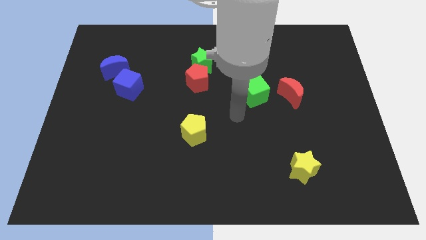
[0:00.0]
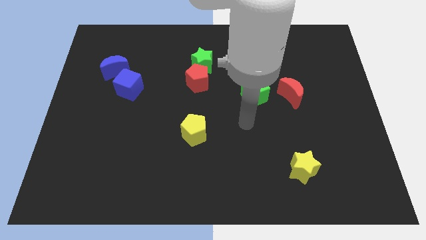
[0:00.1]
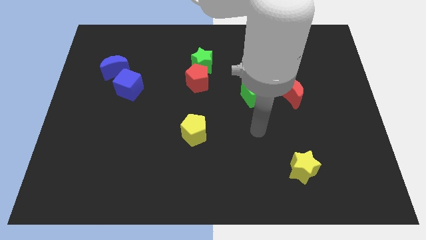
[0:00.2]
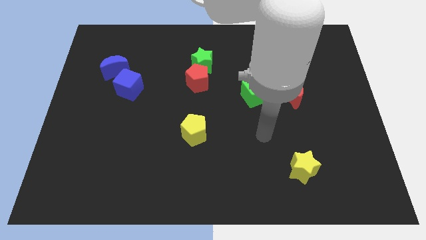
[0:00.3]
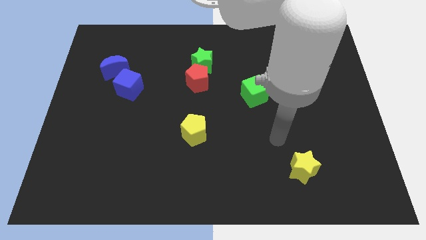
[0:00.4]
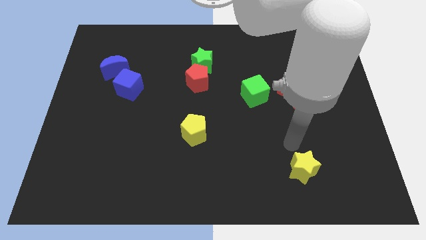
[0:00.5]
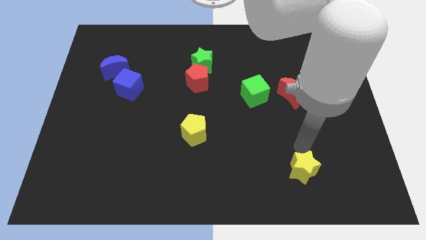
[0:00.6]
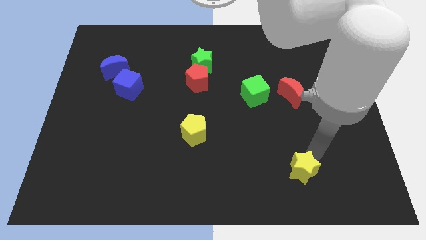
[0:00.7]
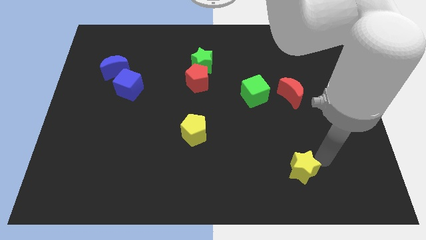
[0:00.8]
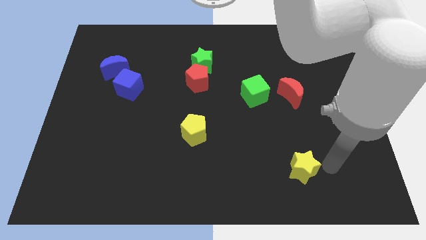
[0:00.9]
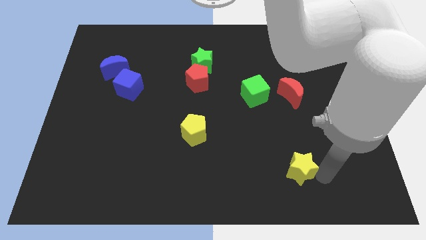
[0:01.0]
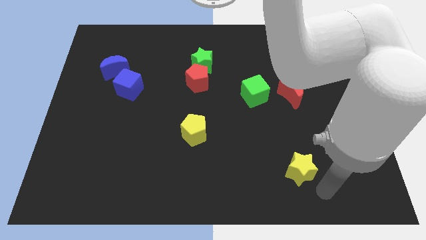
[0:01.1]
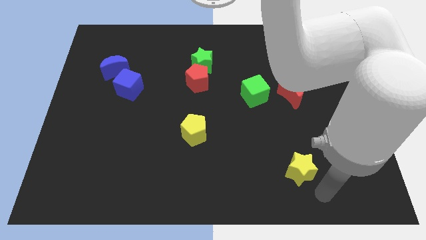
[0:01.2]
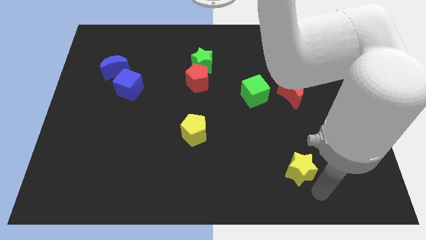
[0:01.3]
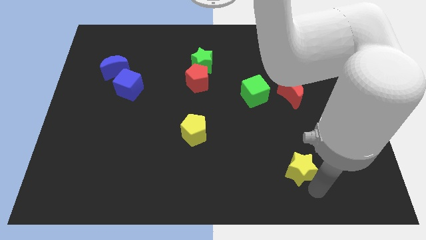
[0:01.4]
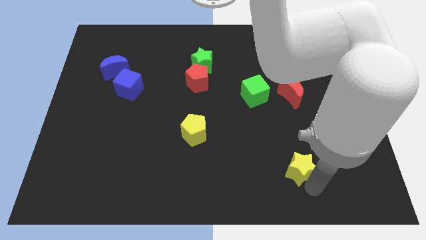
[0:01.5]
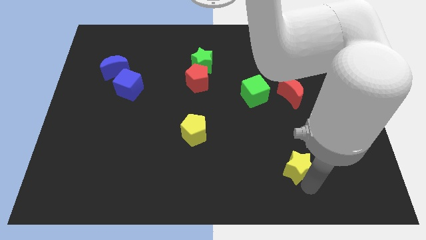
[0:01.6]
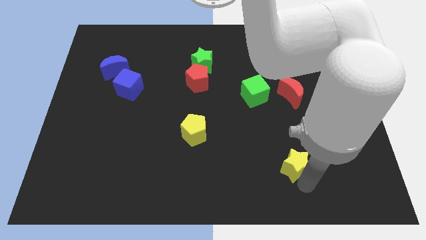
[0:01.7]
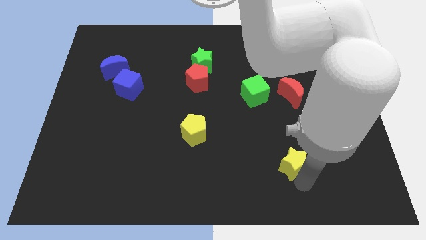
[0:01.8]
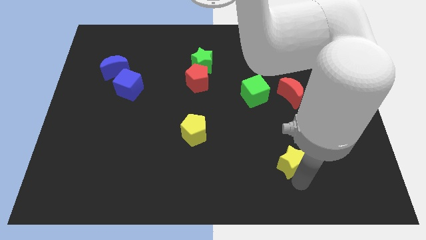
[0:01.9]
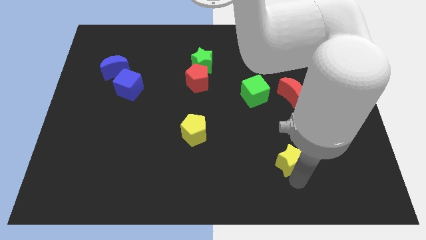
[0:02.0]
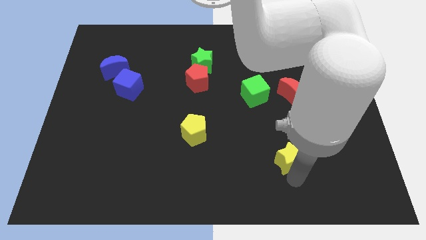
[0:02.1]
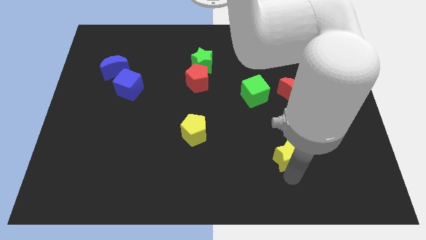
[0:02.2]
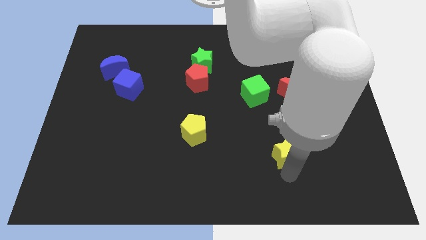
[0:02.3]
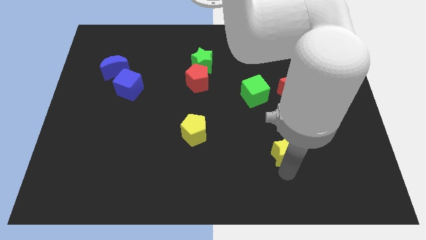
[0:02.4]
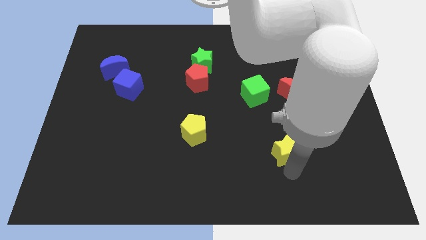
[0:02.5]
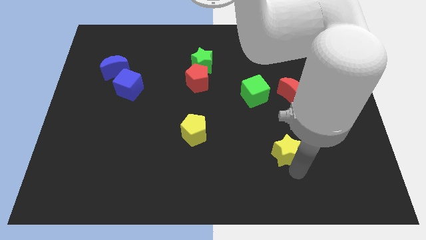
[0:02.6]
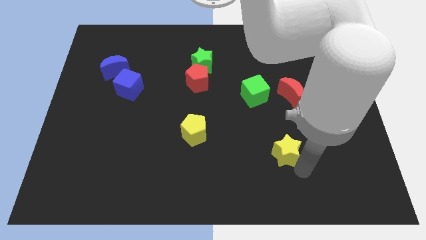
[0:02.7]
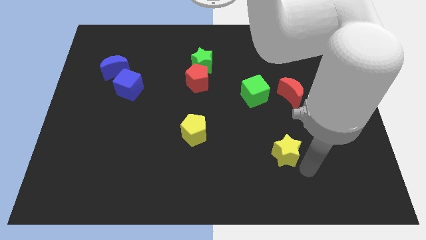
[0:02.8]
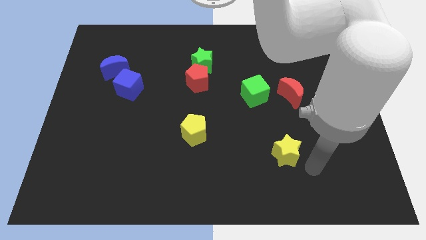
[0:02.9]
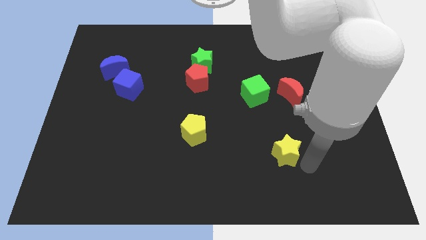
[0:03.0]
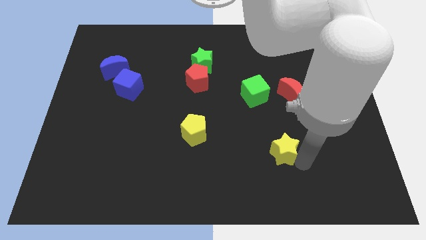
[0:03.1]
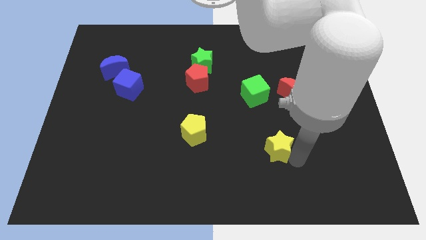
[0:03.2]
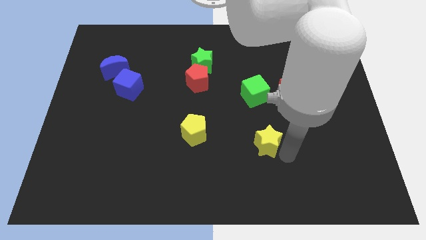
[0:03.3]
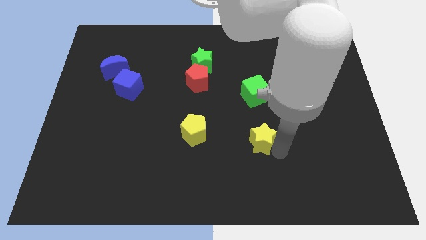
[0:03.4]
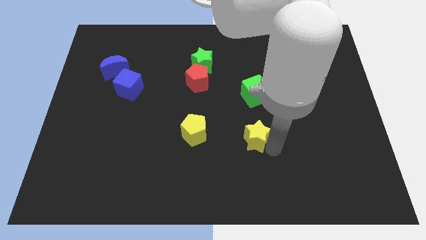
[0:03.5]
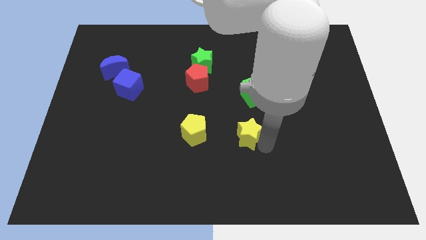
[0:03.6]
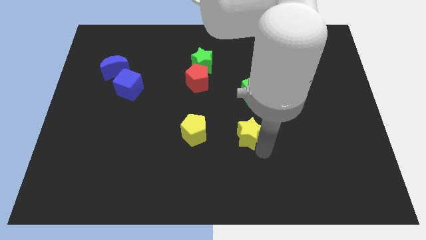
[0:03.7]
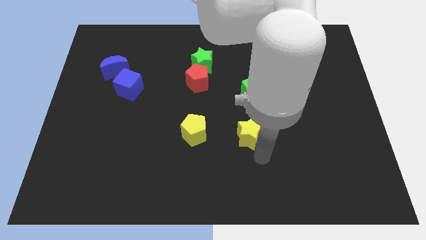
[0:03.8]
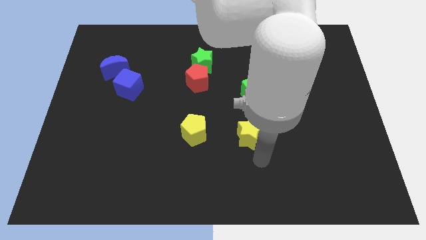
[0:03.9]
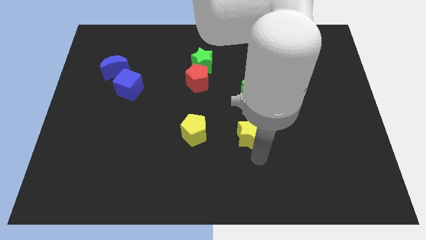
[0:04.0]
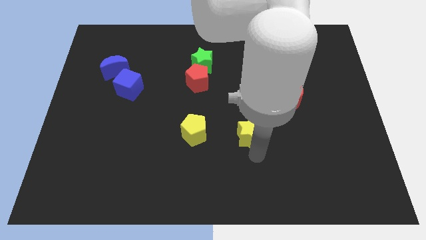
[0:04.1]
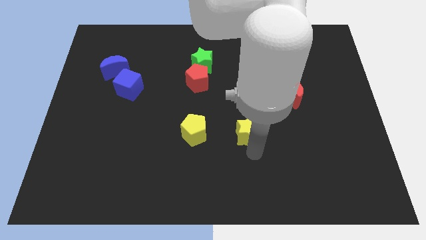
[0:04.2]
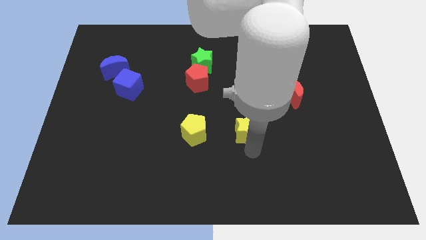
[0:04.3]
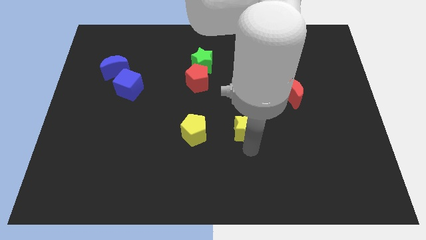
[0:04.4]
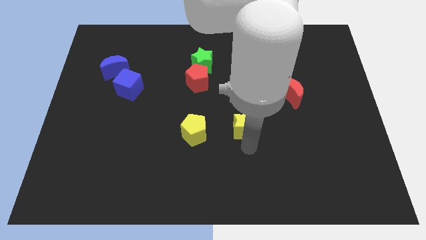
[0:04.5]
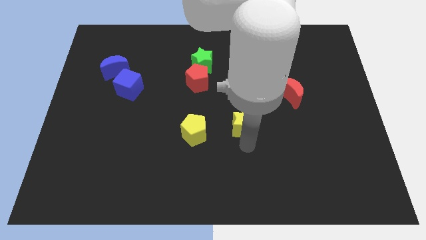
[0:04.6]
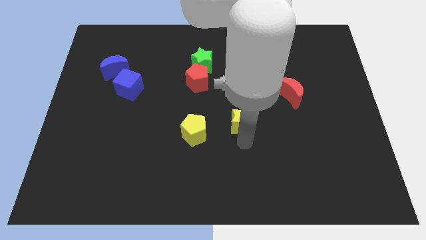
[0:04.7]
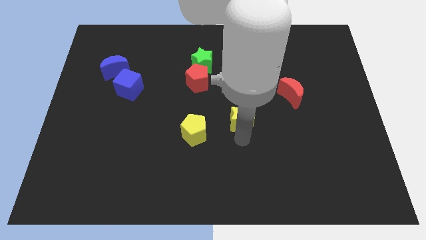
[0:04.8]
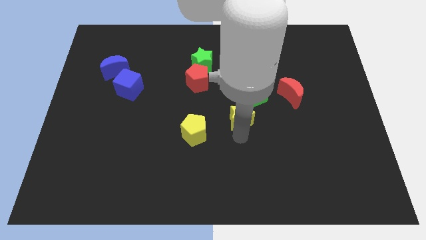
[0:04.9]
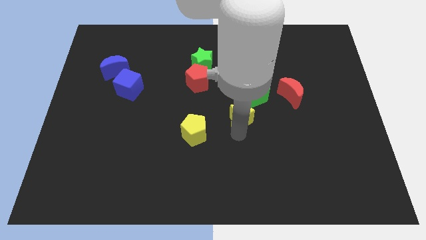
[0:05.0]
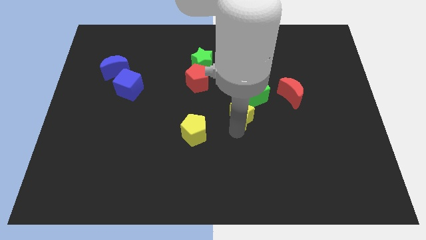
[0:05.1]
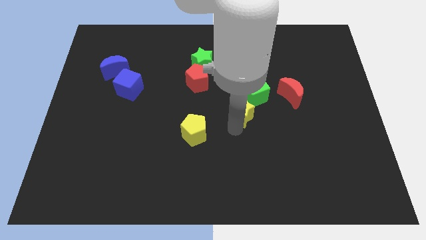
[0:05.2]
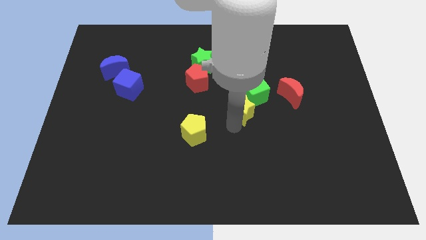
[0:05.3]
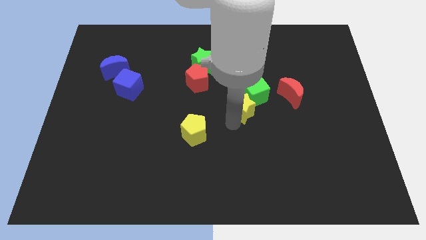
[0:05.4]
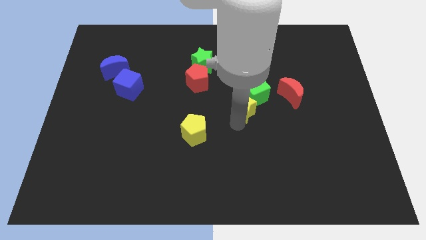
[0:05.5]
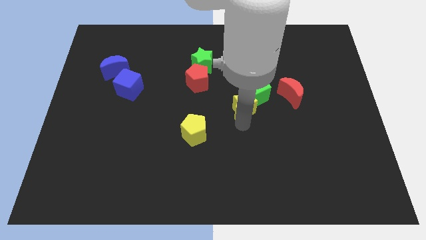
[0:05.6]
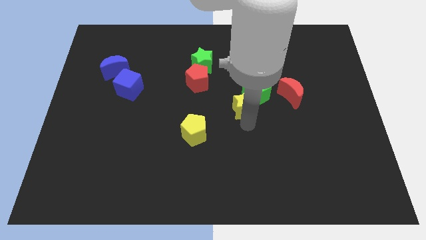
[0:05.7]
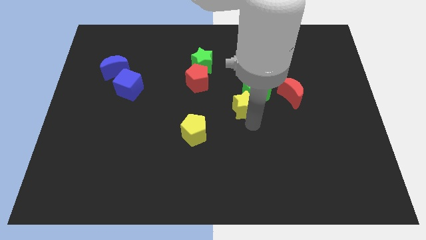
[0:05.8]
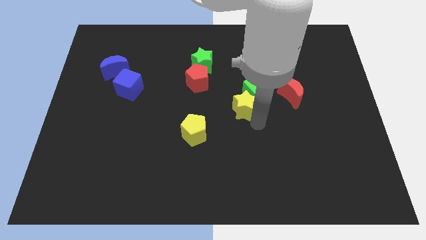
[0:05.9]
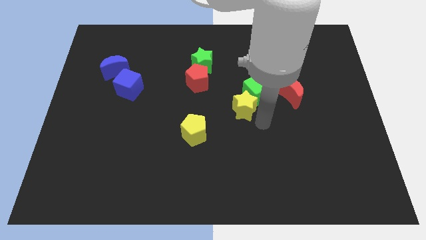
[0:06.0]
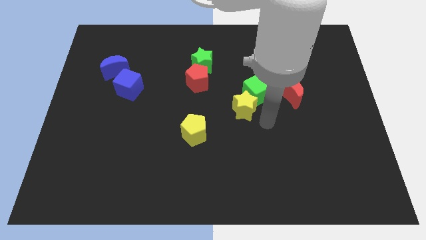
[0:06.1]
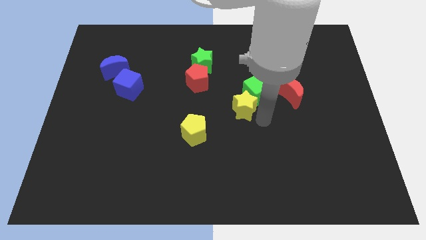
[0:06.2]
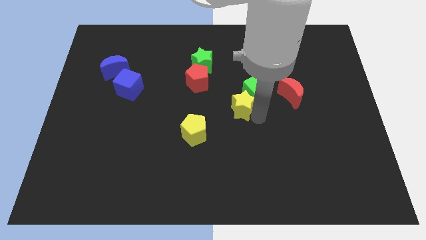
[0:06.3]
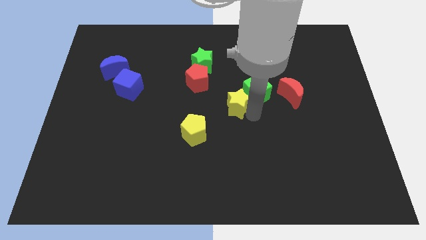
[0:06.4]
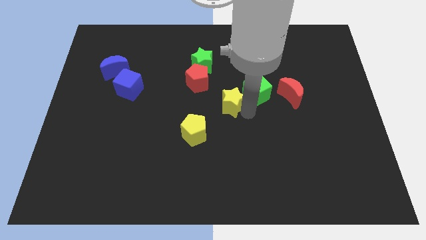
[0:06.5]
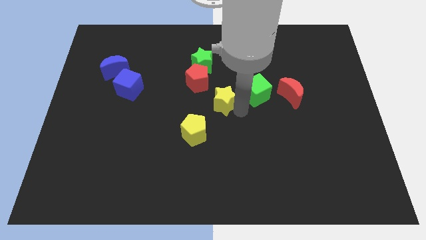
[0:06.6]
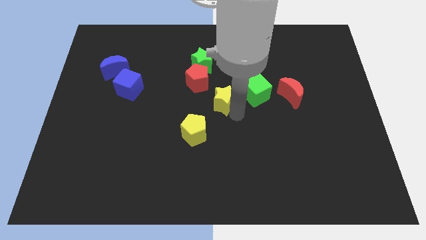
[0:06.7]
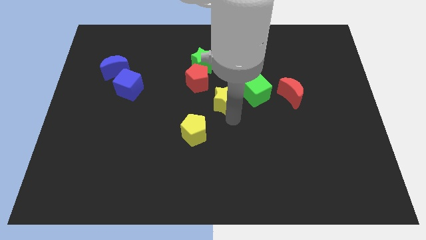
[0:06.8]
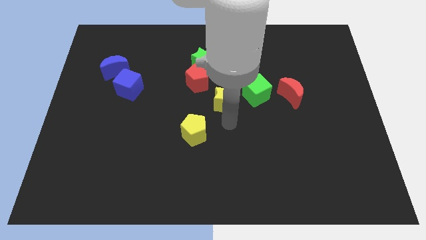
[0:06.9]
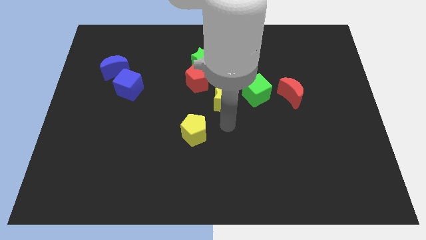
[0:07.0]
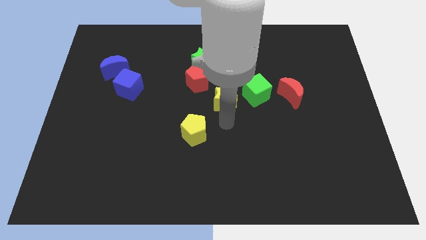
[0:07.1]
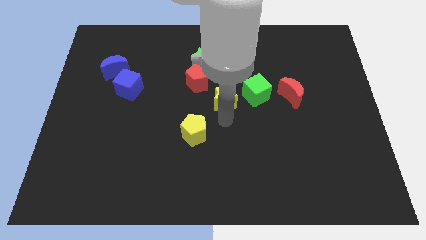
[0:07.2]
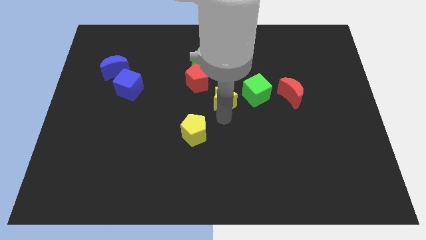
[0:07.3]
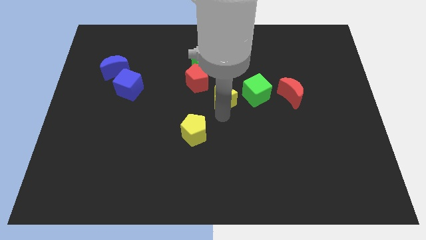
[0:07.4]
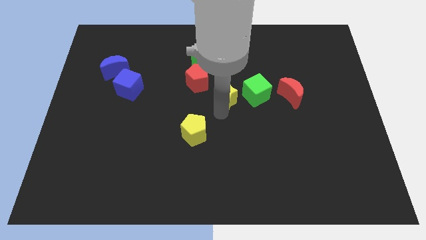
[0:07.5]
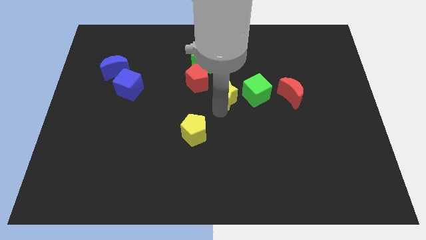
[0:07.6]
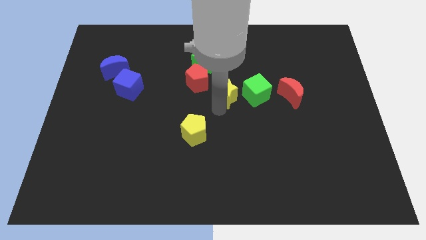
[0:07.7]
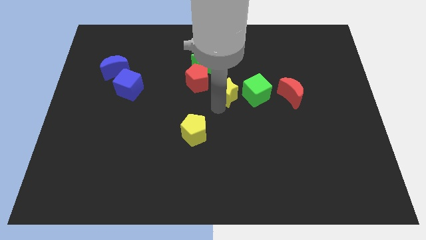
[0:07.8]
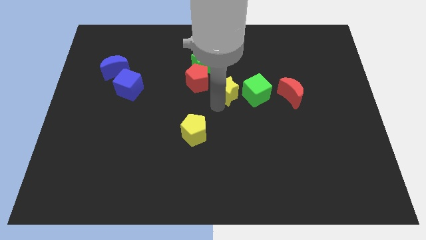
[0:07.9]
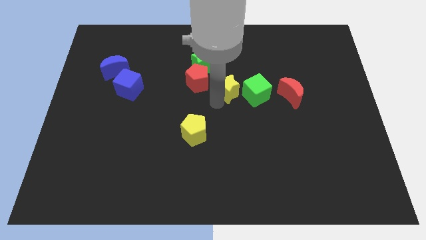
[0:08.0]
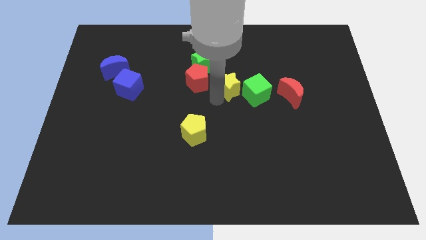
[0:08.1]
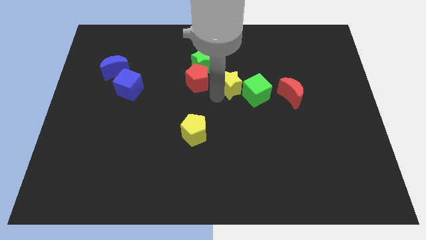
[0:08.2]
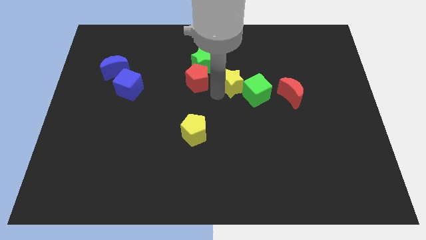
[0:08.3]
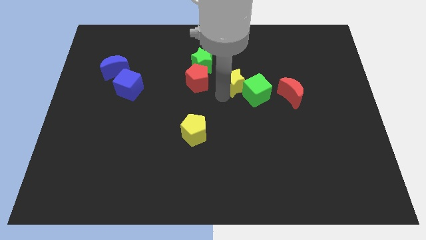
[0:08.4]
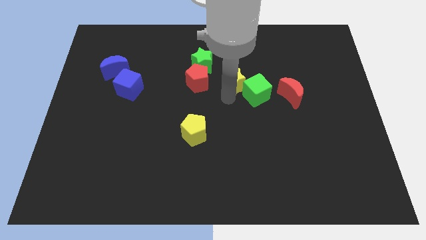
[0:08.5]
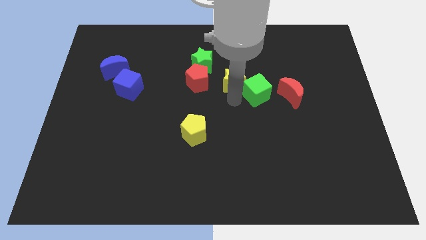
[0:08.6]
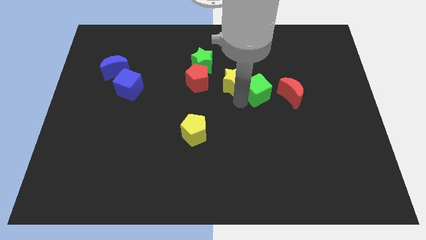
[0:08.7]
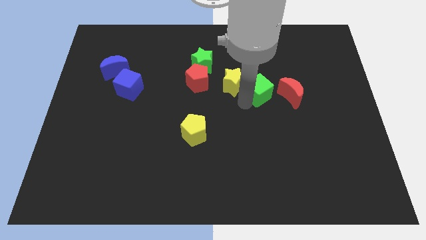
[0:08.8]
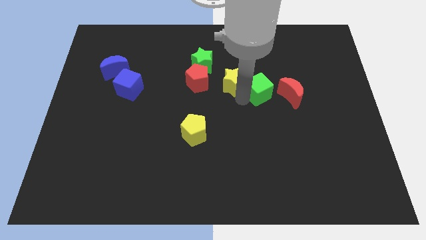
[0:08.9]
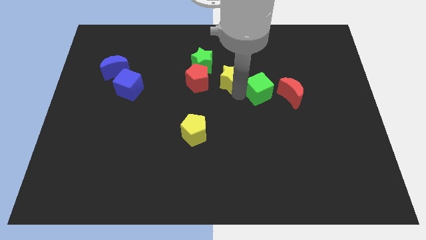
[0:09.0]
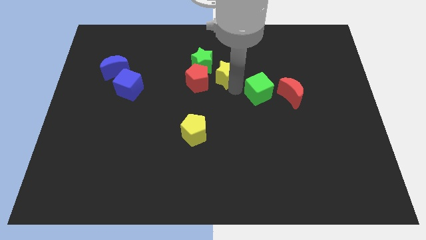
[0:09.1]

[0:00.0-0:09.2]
slide the yellow star diagonally up and to the right of the red pentagon
